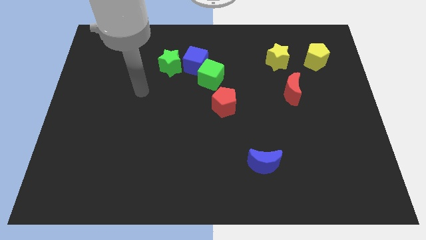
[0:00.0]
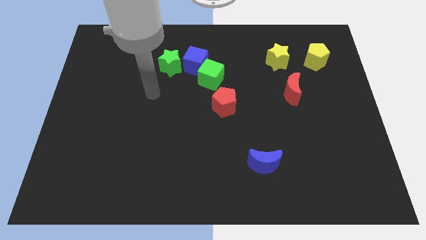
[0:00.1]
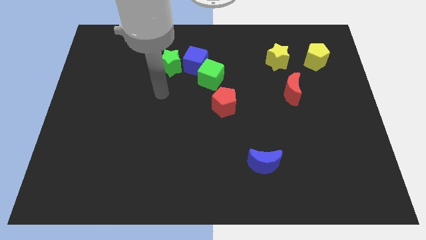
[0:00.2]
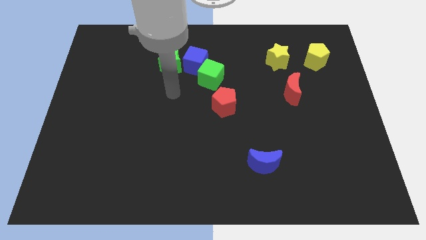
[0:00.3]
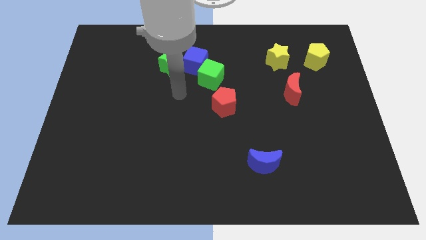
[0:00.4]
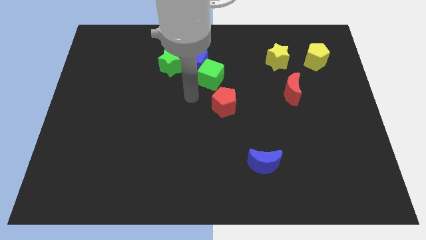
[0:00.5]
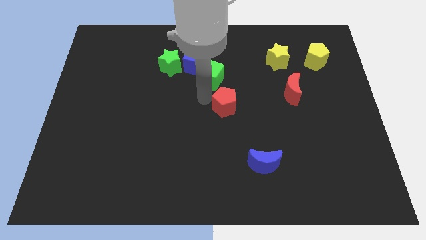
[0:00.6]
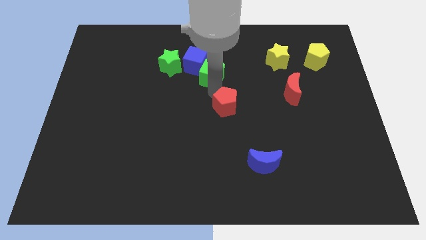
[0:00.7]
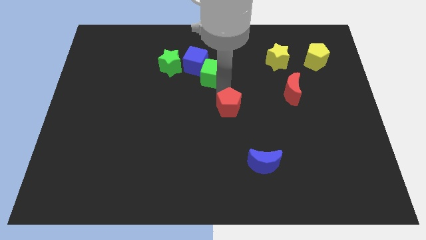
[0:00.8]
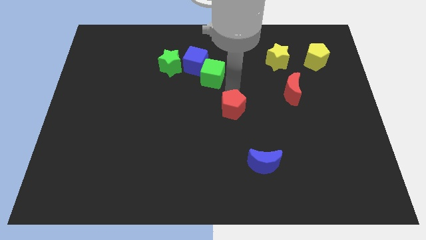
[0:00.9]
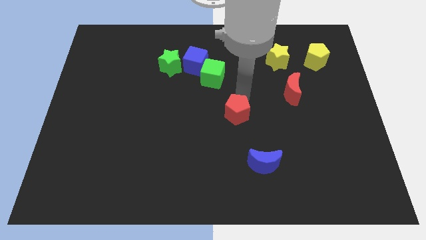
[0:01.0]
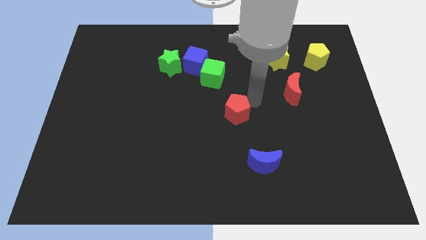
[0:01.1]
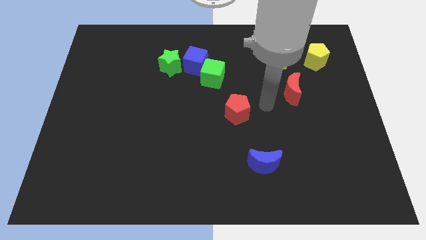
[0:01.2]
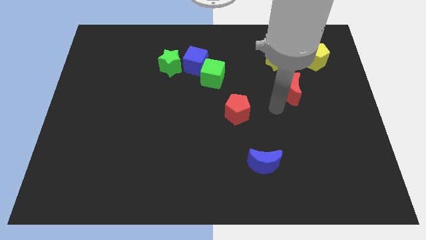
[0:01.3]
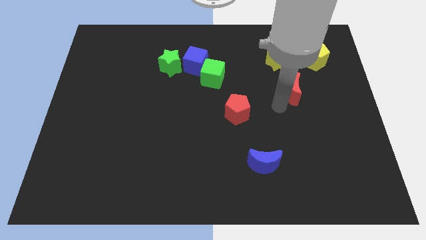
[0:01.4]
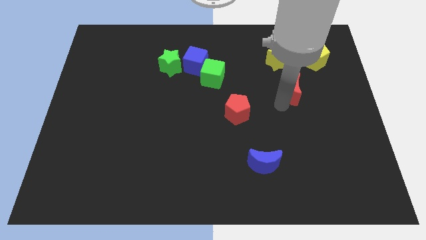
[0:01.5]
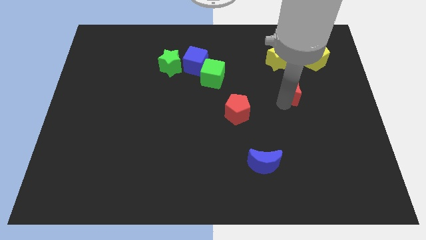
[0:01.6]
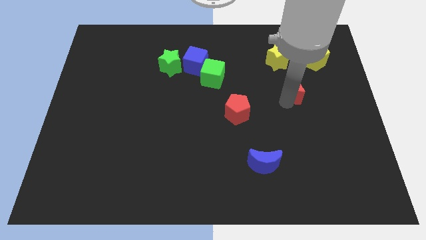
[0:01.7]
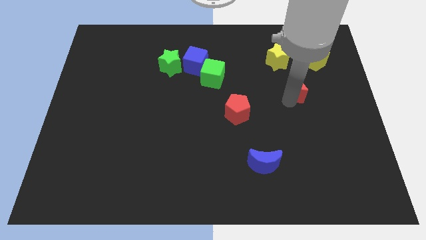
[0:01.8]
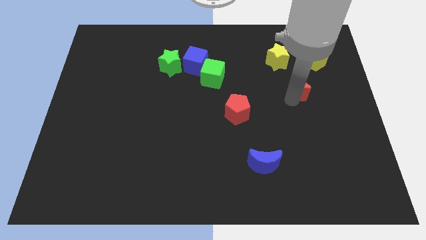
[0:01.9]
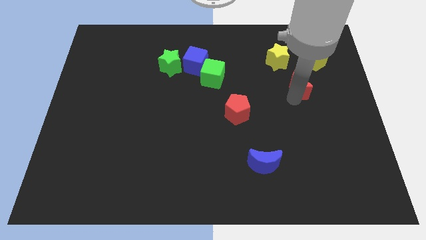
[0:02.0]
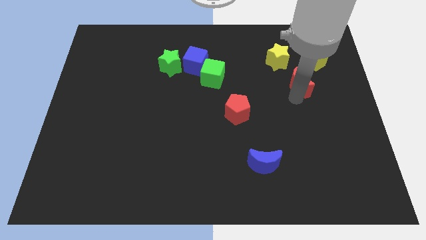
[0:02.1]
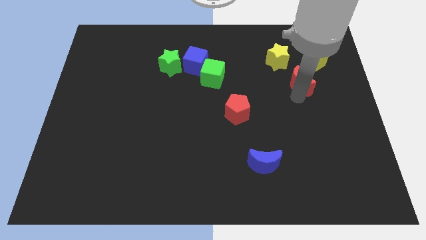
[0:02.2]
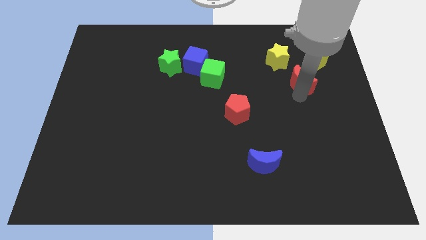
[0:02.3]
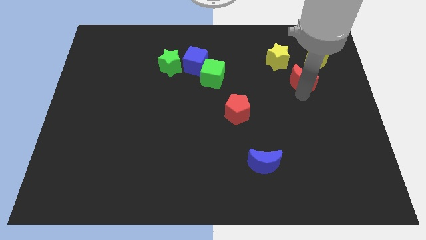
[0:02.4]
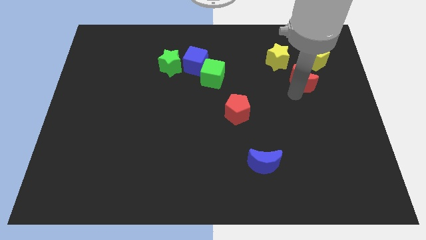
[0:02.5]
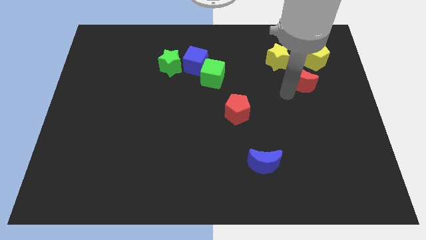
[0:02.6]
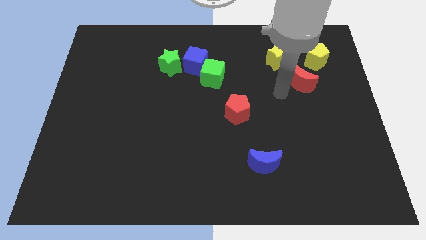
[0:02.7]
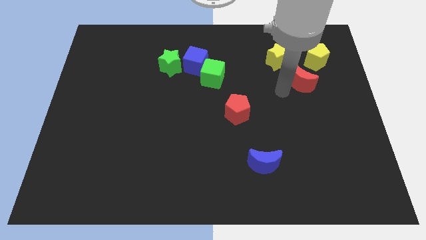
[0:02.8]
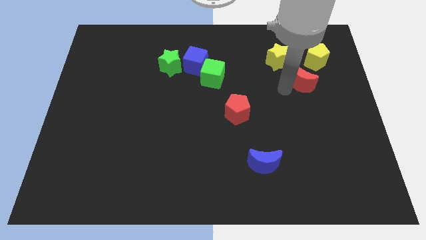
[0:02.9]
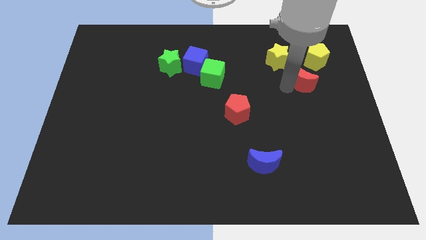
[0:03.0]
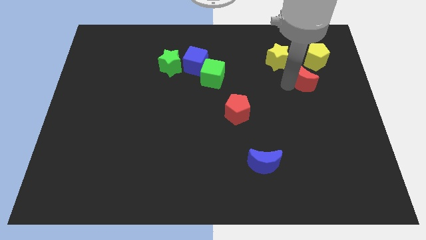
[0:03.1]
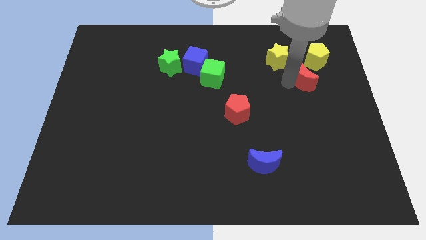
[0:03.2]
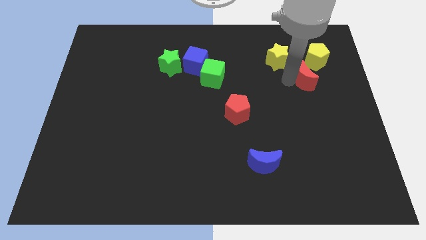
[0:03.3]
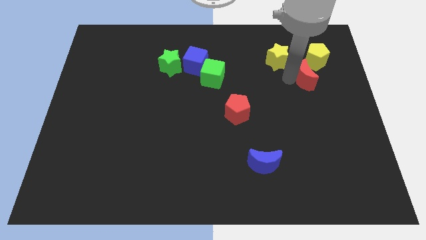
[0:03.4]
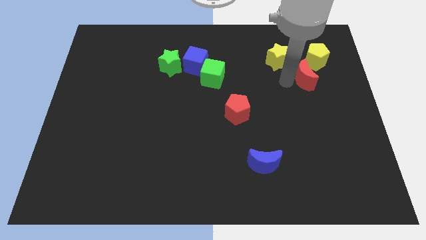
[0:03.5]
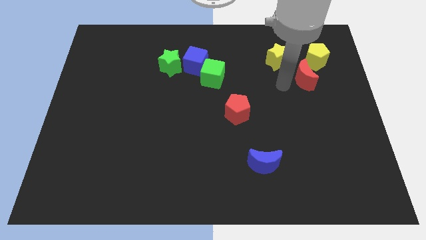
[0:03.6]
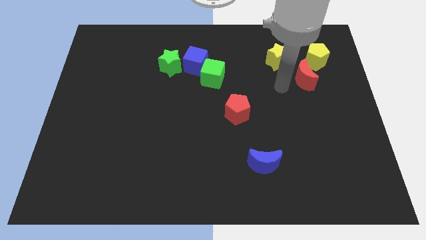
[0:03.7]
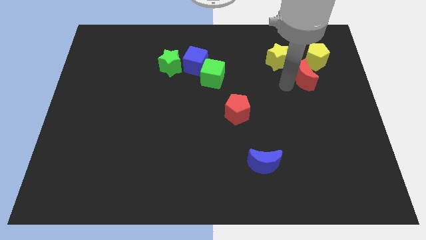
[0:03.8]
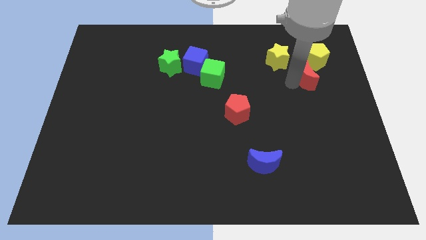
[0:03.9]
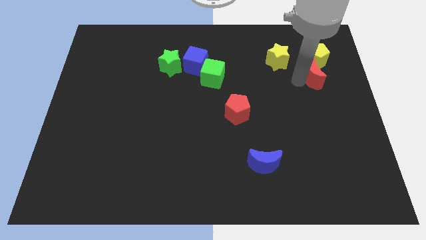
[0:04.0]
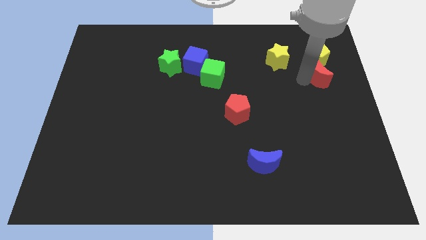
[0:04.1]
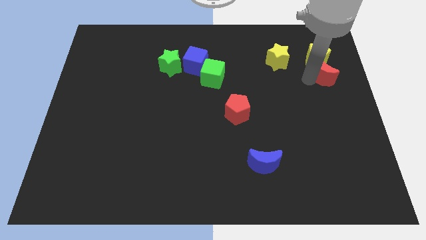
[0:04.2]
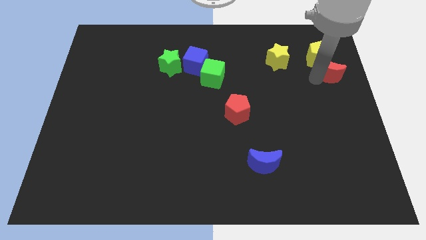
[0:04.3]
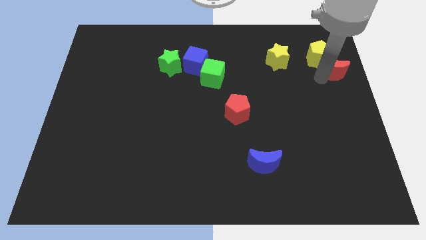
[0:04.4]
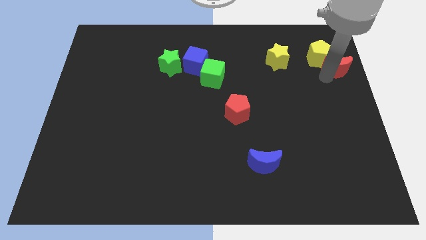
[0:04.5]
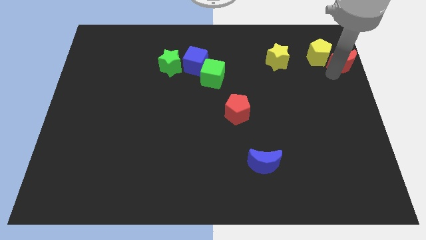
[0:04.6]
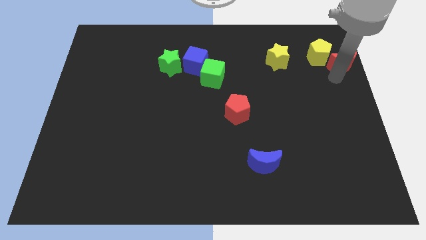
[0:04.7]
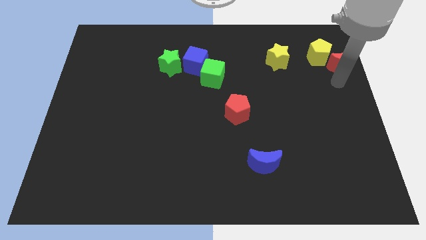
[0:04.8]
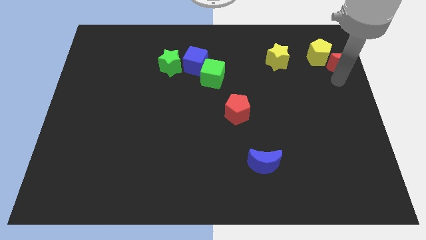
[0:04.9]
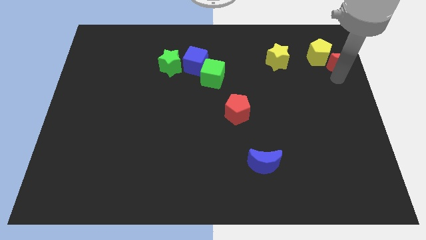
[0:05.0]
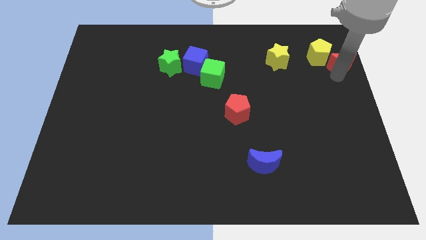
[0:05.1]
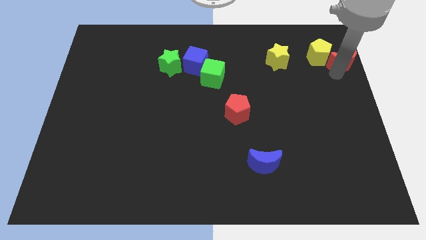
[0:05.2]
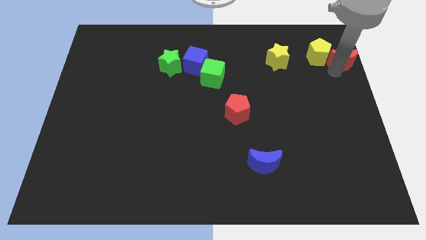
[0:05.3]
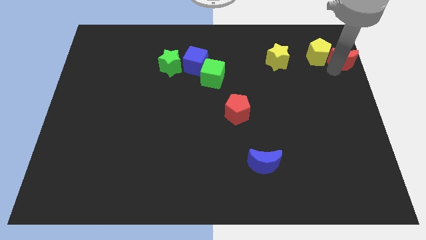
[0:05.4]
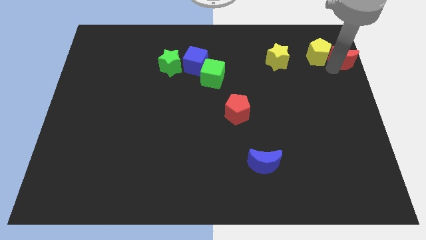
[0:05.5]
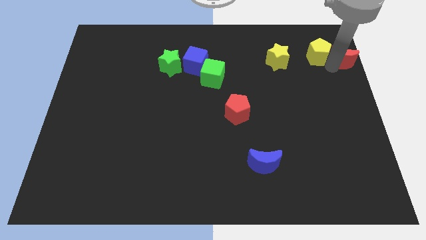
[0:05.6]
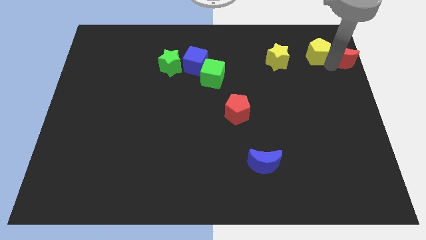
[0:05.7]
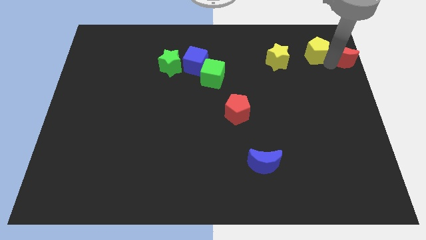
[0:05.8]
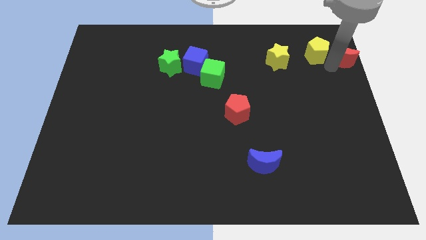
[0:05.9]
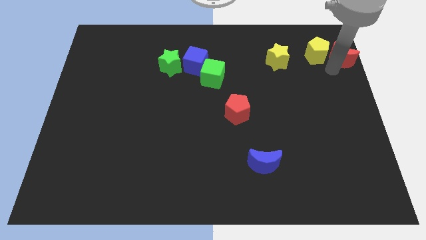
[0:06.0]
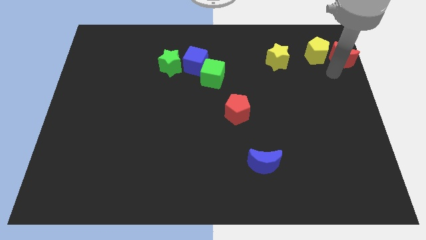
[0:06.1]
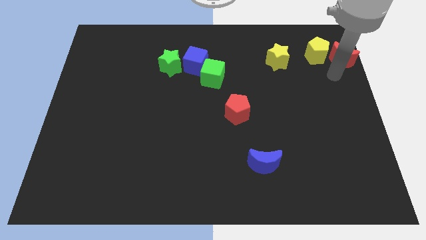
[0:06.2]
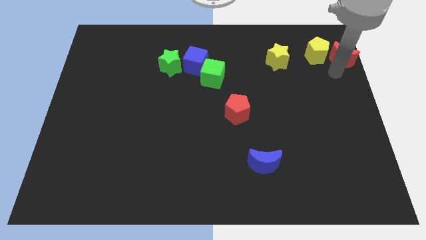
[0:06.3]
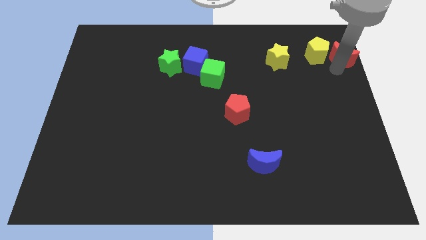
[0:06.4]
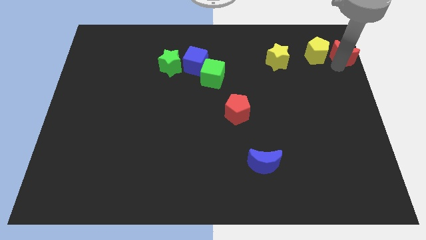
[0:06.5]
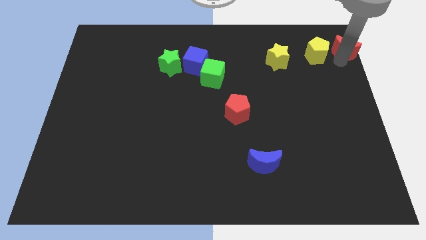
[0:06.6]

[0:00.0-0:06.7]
move the red moon to the top right corner

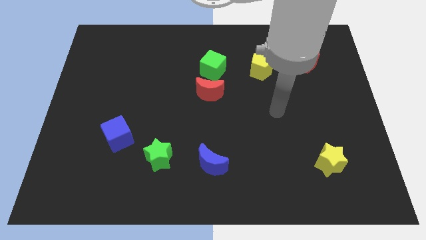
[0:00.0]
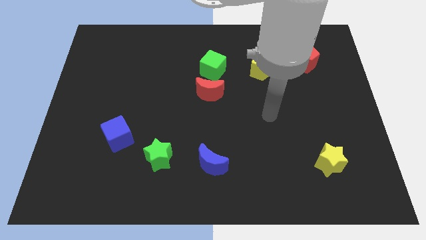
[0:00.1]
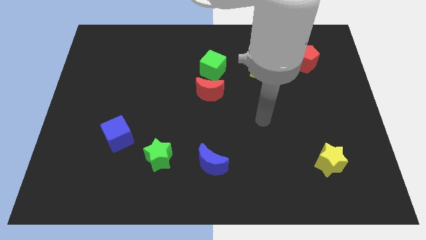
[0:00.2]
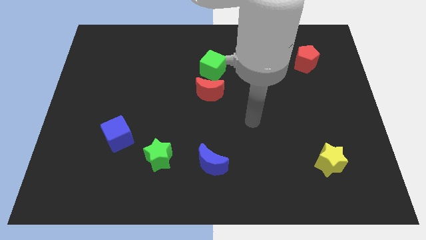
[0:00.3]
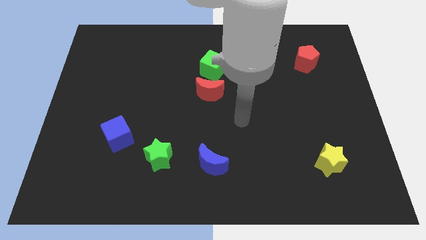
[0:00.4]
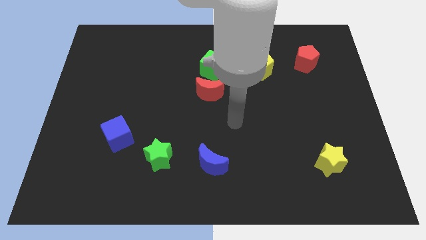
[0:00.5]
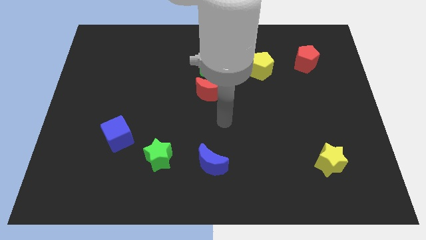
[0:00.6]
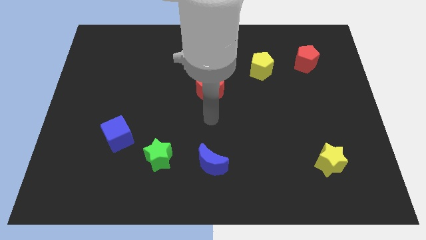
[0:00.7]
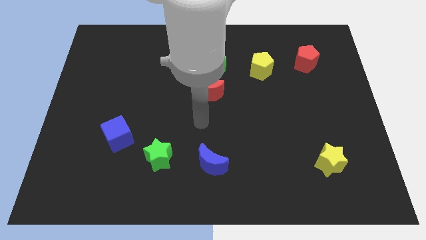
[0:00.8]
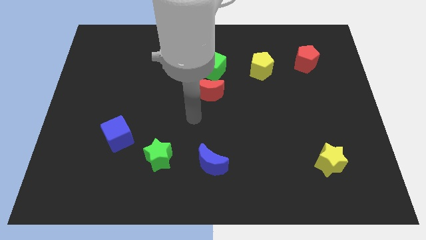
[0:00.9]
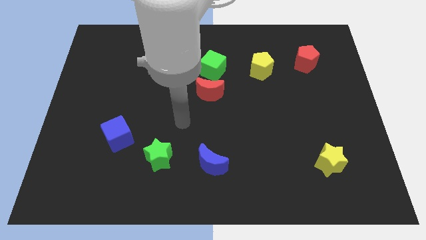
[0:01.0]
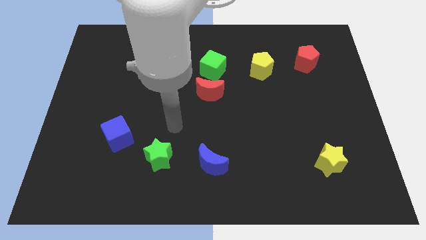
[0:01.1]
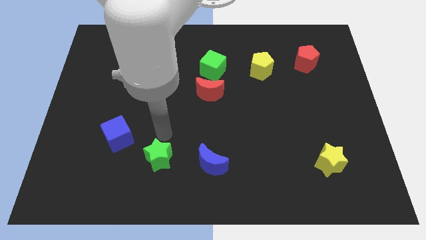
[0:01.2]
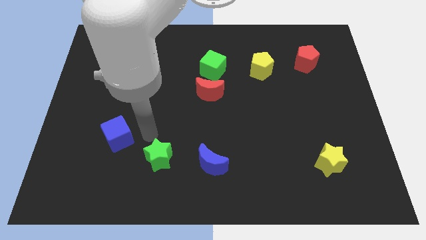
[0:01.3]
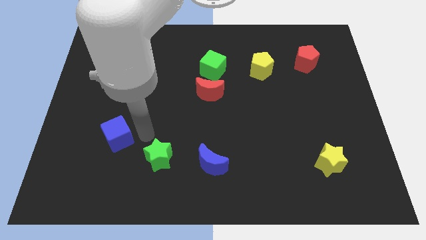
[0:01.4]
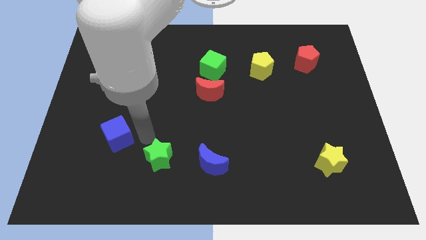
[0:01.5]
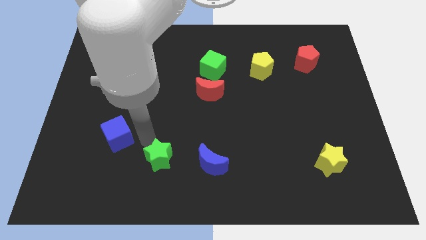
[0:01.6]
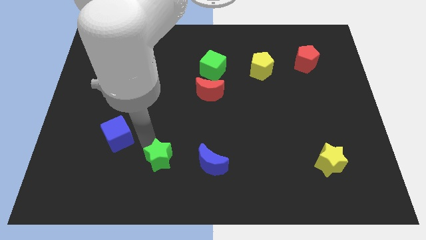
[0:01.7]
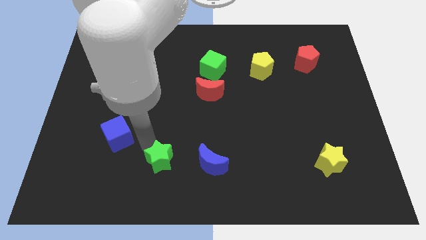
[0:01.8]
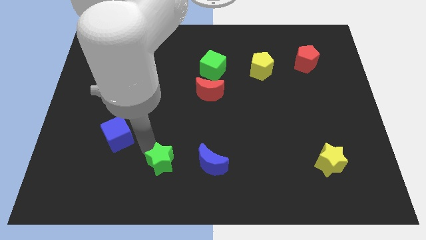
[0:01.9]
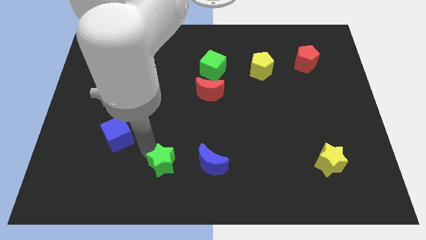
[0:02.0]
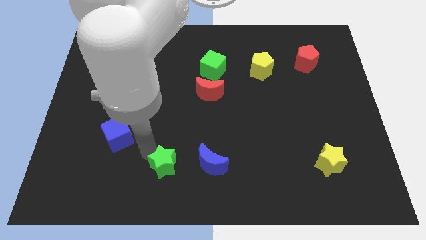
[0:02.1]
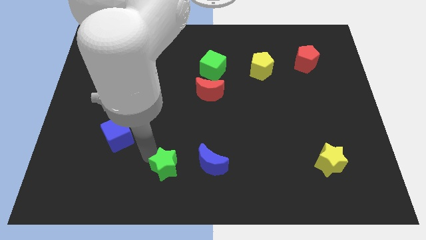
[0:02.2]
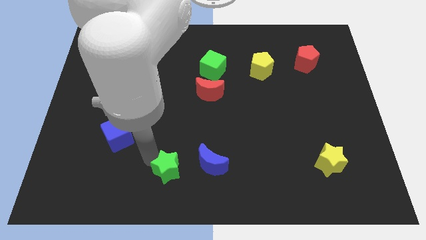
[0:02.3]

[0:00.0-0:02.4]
push the green star to the bottom side
